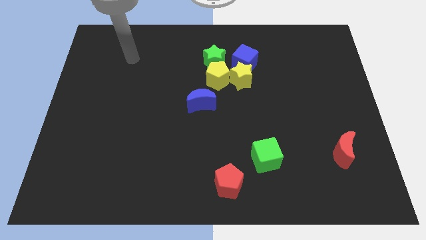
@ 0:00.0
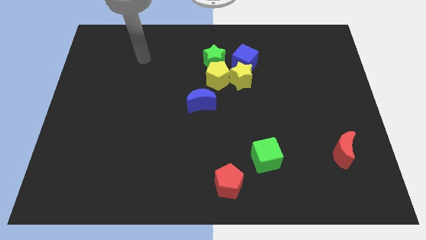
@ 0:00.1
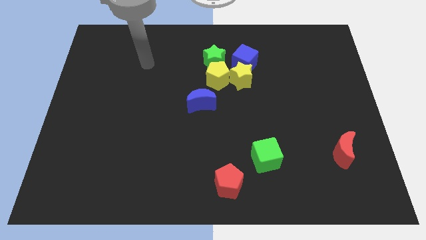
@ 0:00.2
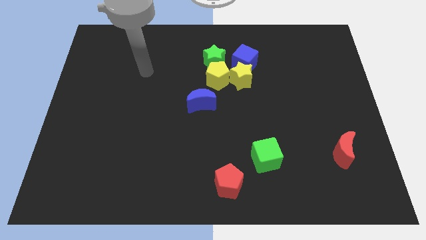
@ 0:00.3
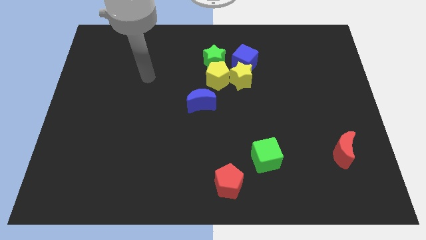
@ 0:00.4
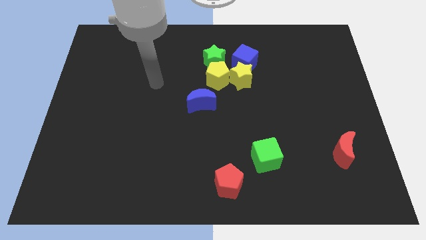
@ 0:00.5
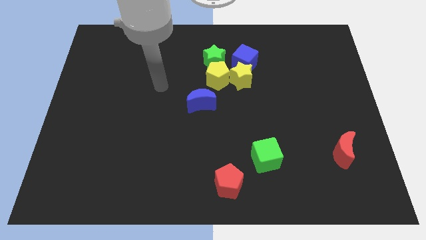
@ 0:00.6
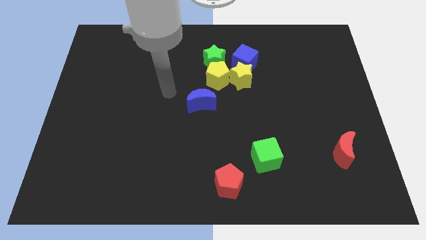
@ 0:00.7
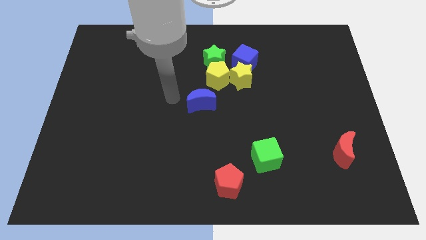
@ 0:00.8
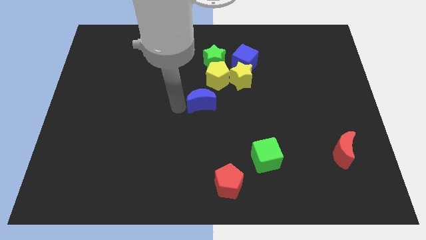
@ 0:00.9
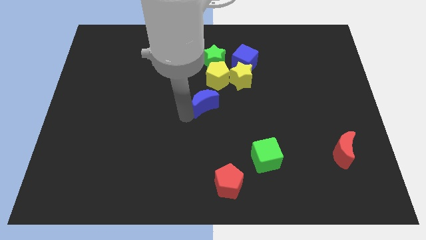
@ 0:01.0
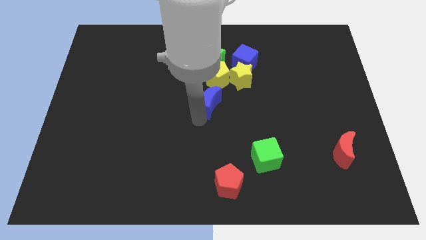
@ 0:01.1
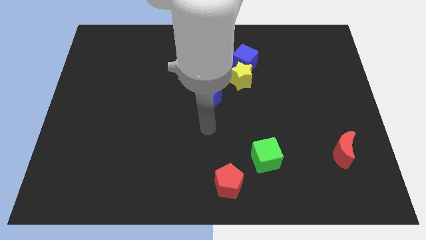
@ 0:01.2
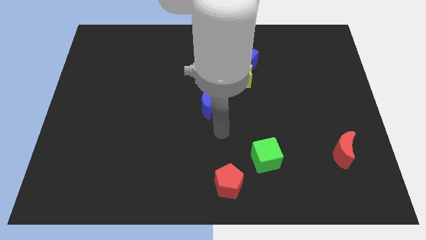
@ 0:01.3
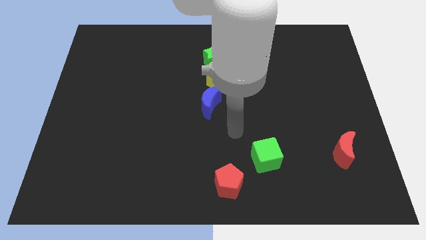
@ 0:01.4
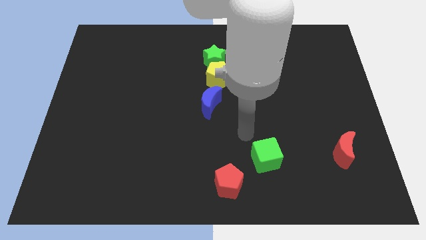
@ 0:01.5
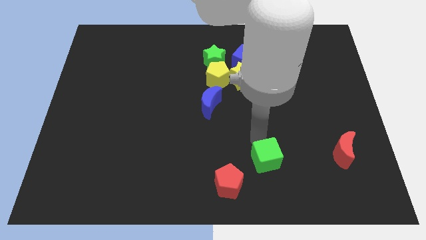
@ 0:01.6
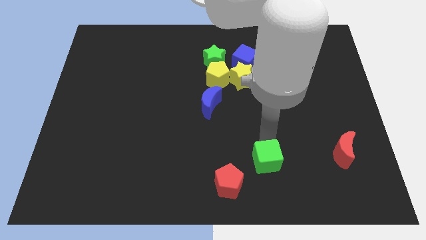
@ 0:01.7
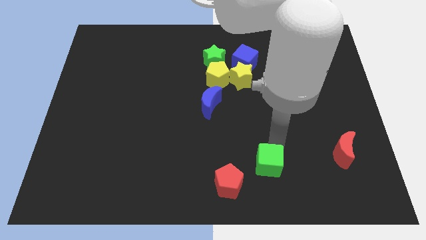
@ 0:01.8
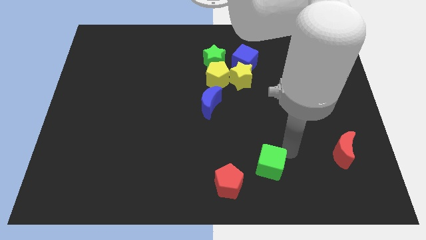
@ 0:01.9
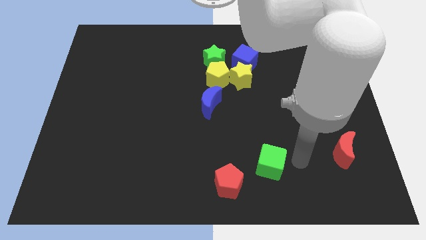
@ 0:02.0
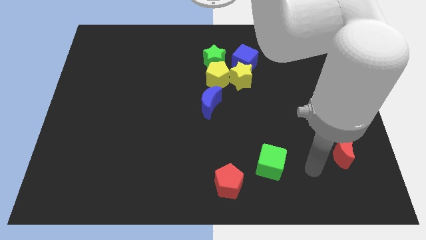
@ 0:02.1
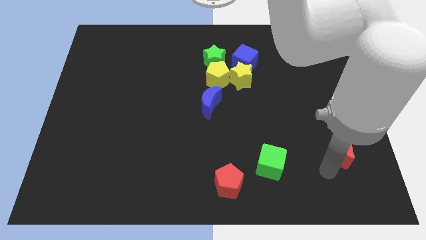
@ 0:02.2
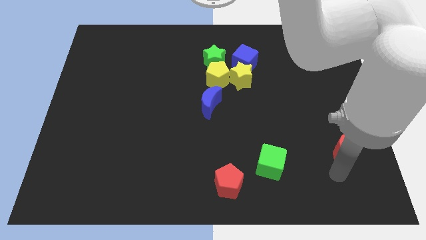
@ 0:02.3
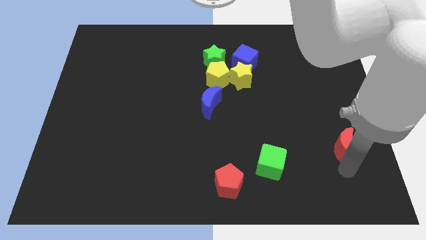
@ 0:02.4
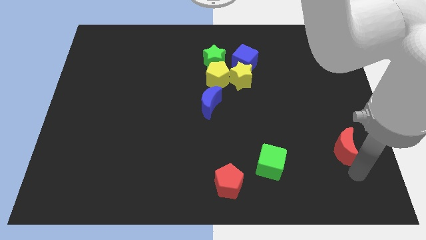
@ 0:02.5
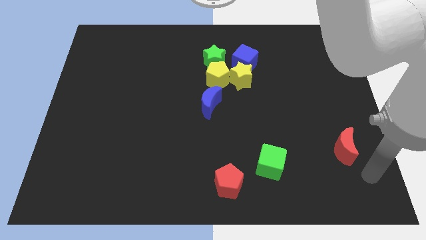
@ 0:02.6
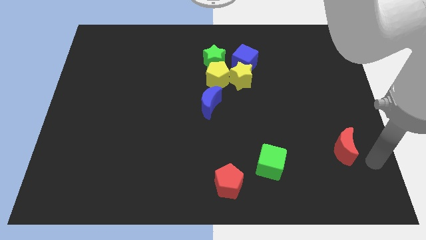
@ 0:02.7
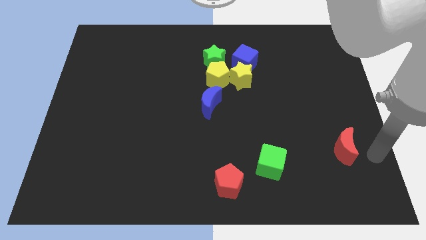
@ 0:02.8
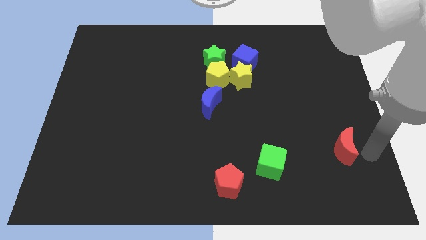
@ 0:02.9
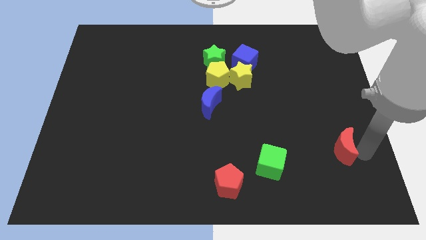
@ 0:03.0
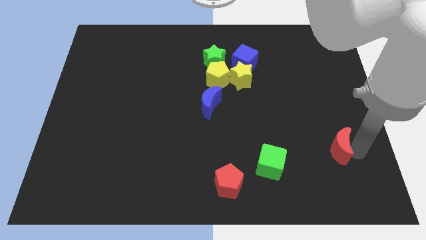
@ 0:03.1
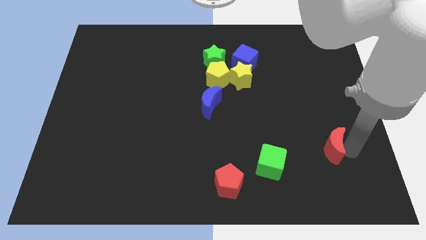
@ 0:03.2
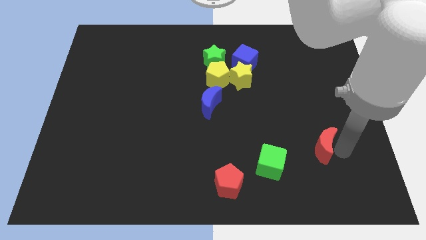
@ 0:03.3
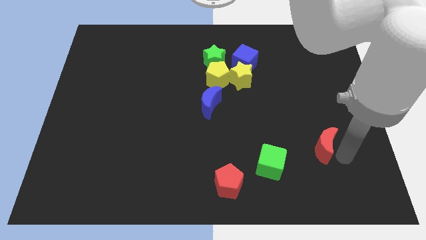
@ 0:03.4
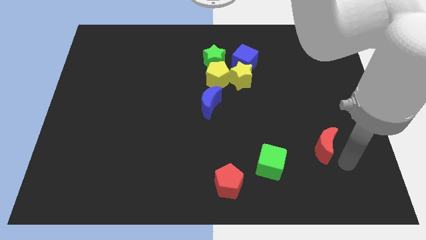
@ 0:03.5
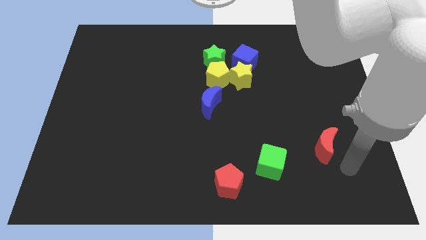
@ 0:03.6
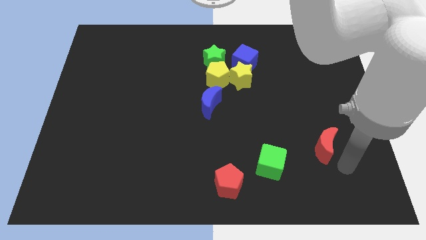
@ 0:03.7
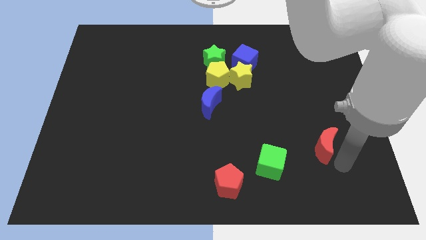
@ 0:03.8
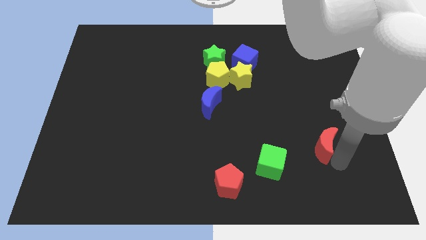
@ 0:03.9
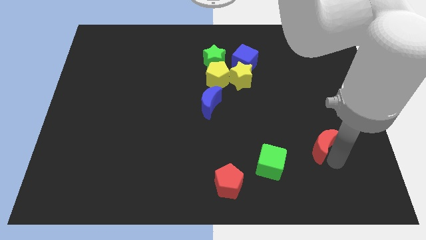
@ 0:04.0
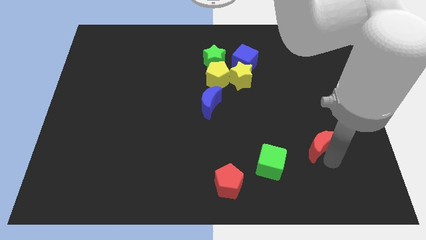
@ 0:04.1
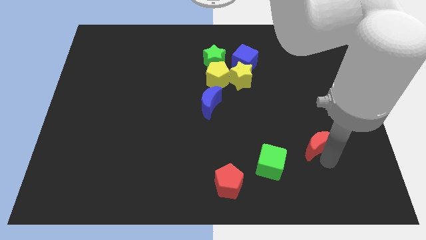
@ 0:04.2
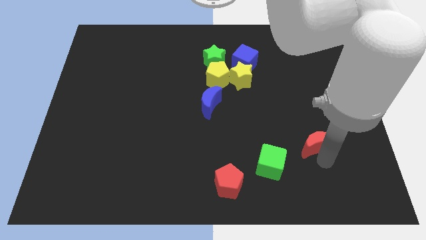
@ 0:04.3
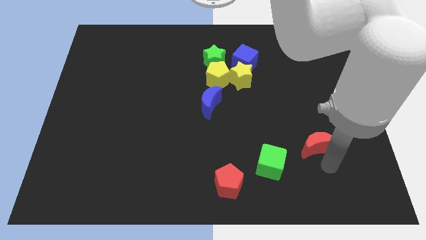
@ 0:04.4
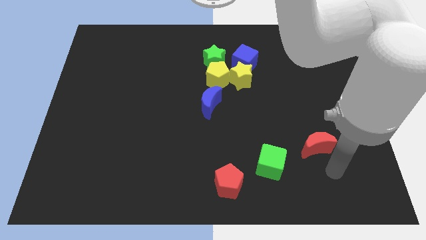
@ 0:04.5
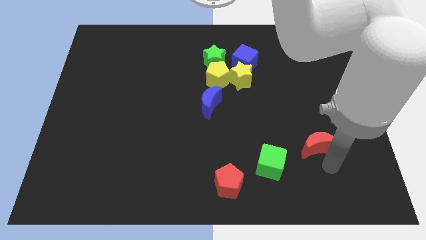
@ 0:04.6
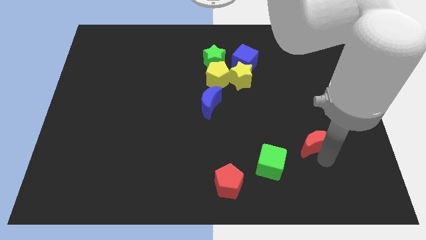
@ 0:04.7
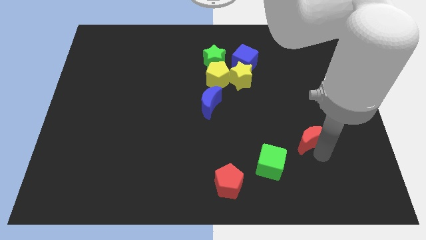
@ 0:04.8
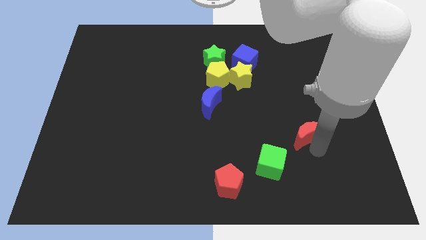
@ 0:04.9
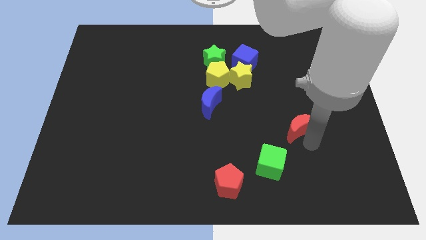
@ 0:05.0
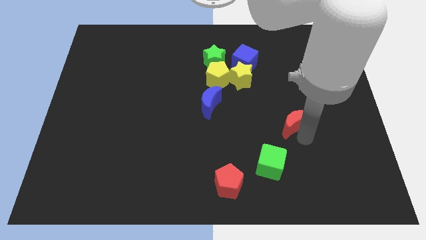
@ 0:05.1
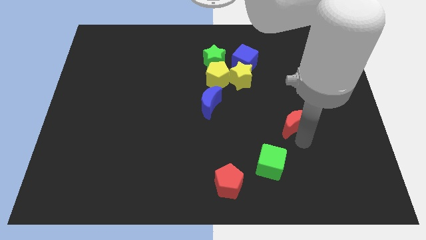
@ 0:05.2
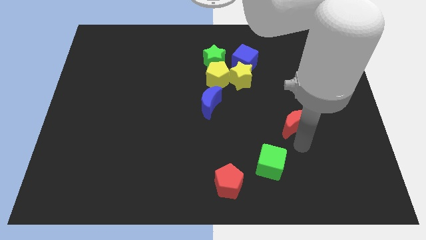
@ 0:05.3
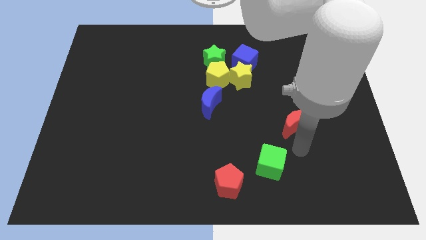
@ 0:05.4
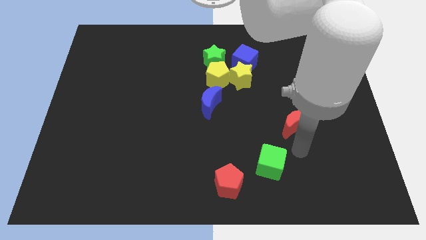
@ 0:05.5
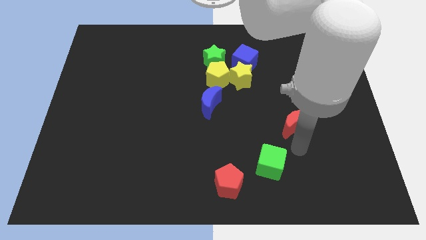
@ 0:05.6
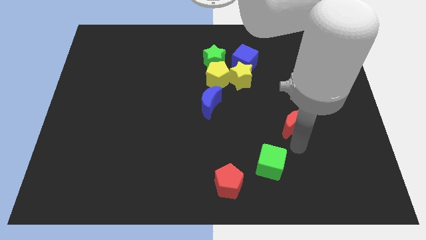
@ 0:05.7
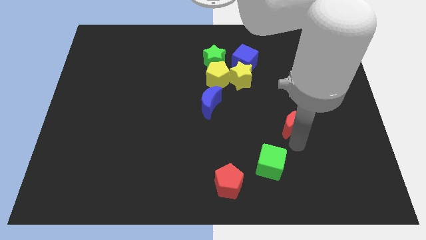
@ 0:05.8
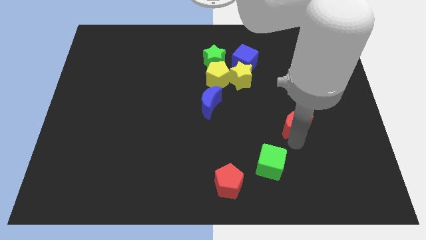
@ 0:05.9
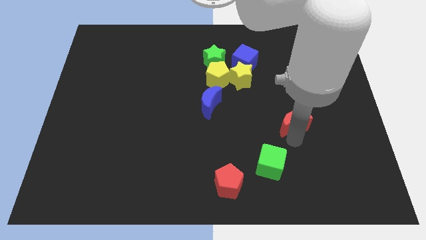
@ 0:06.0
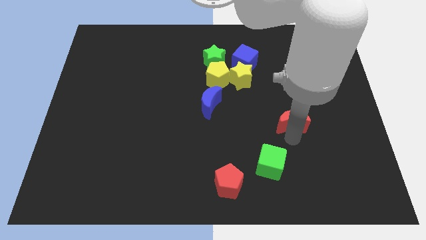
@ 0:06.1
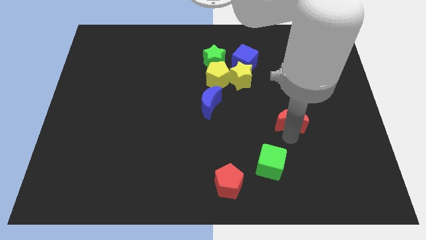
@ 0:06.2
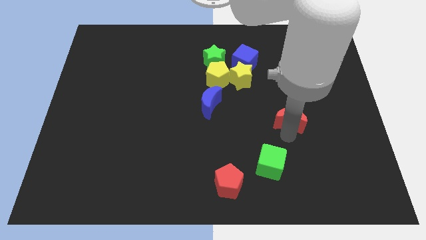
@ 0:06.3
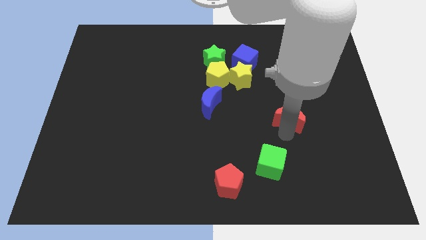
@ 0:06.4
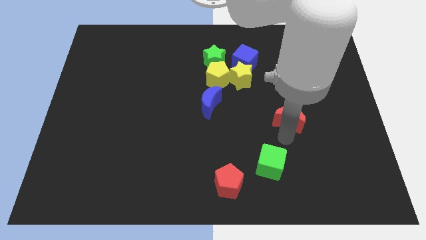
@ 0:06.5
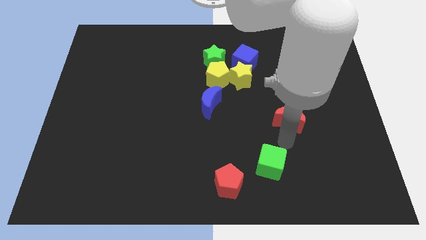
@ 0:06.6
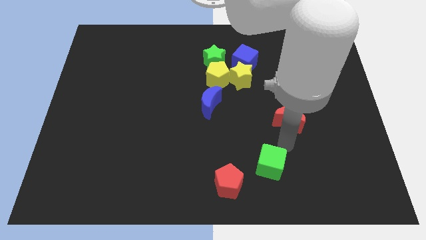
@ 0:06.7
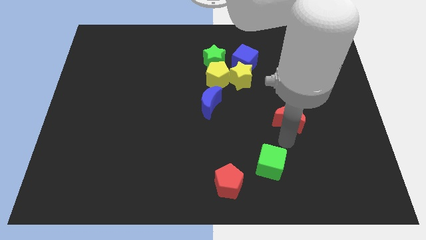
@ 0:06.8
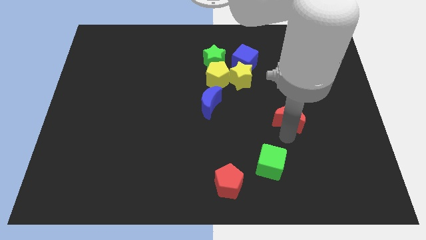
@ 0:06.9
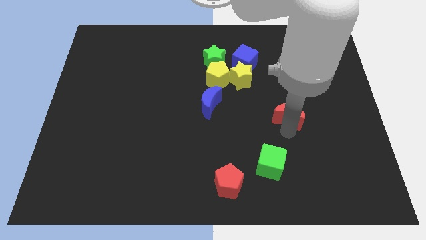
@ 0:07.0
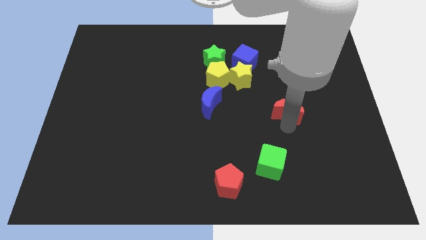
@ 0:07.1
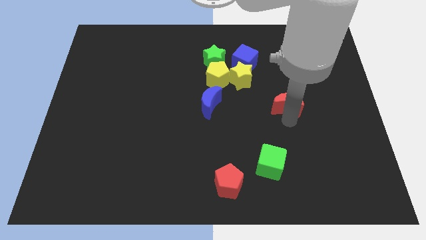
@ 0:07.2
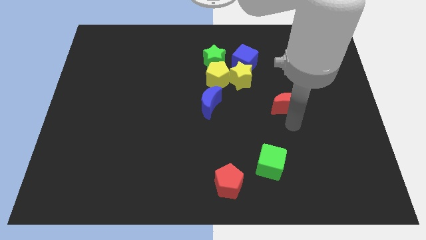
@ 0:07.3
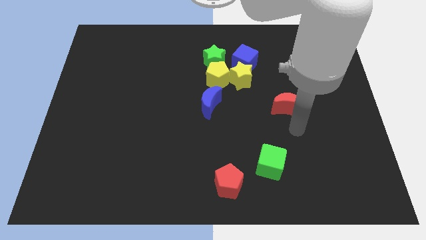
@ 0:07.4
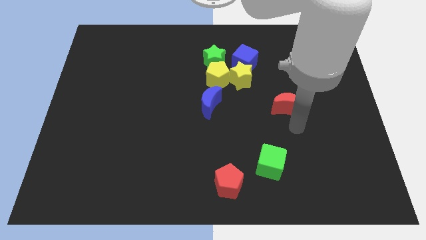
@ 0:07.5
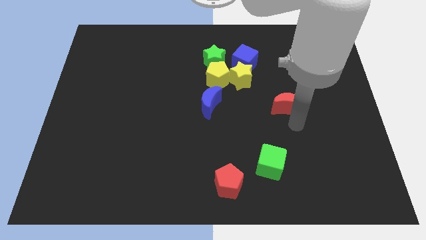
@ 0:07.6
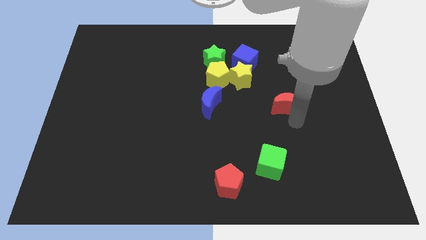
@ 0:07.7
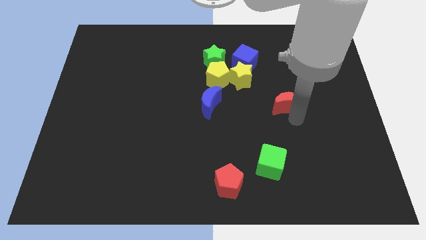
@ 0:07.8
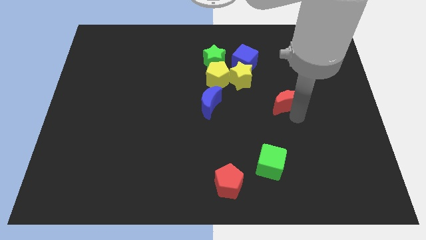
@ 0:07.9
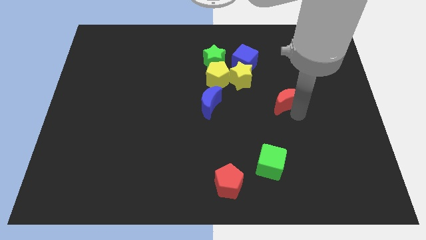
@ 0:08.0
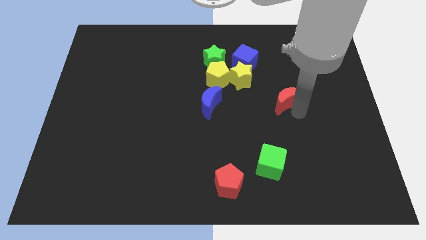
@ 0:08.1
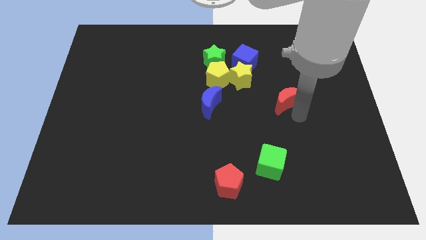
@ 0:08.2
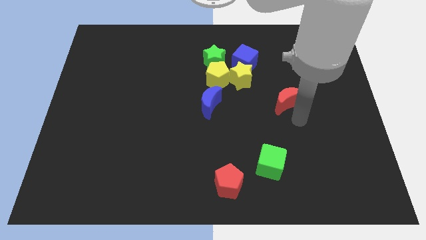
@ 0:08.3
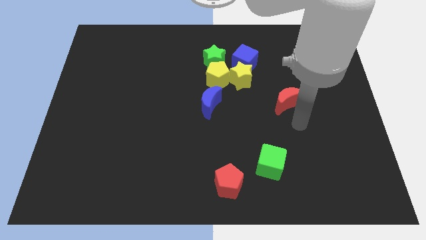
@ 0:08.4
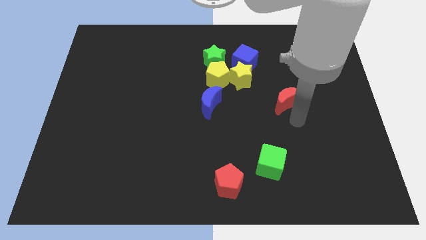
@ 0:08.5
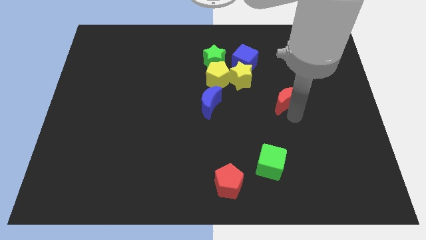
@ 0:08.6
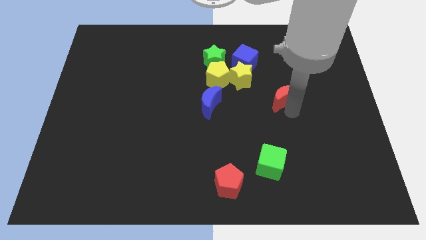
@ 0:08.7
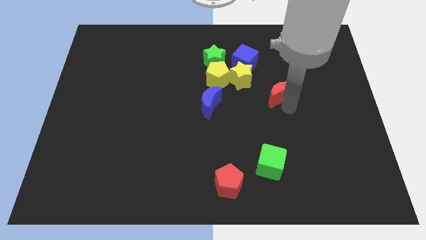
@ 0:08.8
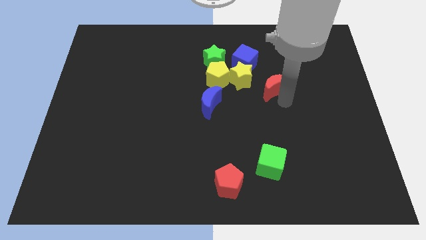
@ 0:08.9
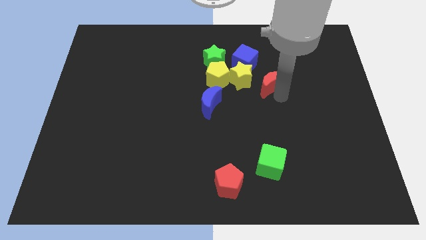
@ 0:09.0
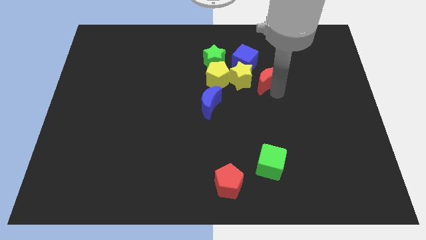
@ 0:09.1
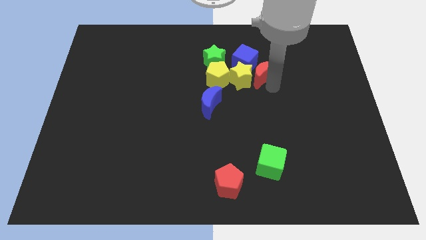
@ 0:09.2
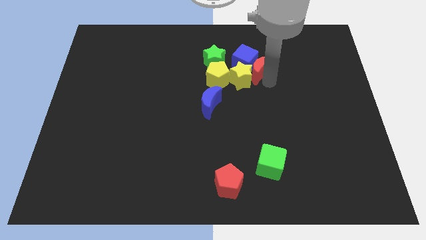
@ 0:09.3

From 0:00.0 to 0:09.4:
slide the red moon to the blue cube
